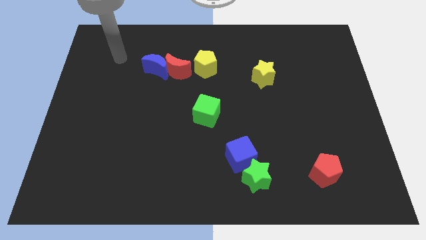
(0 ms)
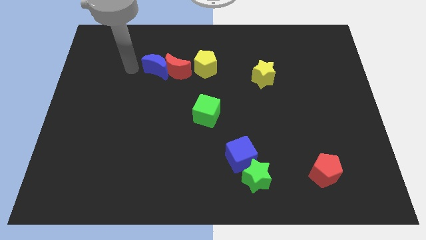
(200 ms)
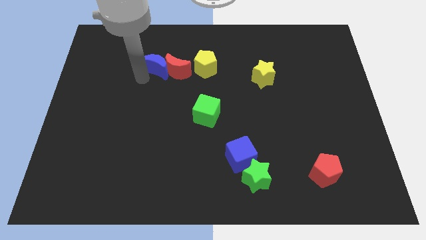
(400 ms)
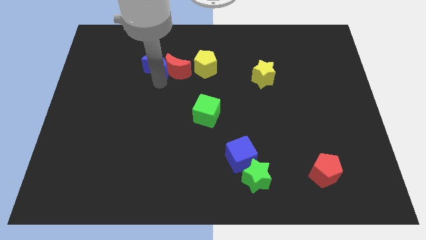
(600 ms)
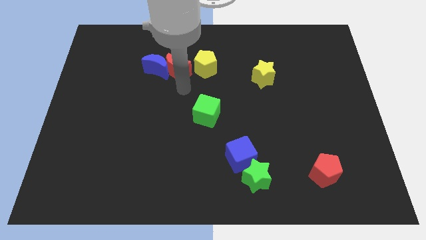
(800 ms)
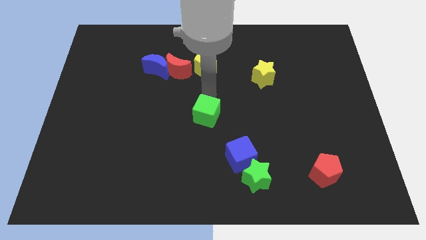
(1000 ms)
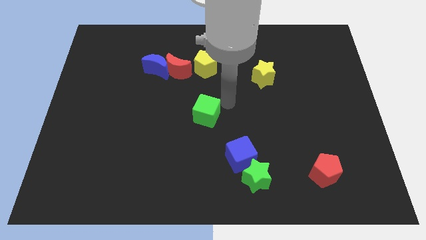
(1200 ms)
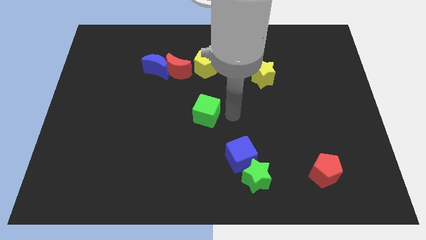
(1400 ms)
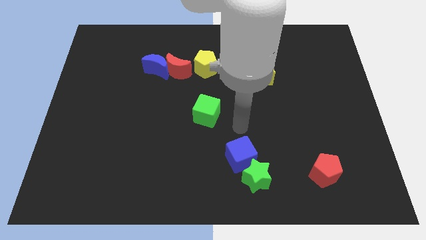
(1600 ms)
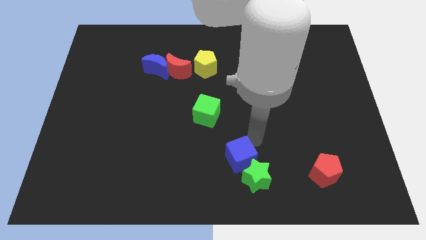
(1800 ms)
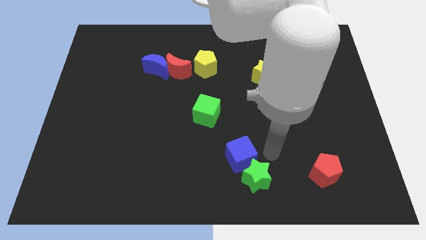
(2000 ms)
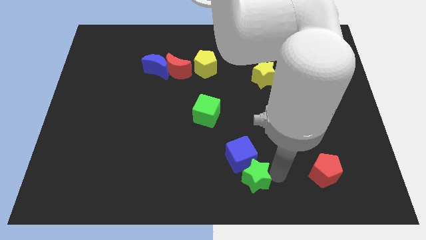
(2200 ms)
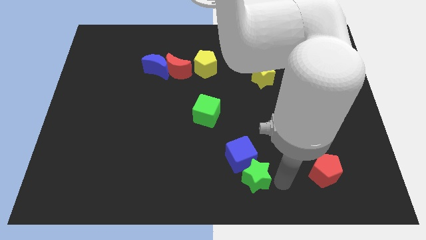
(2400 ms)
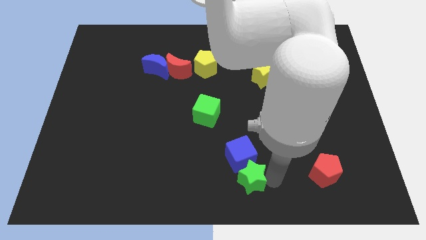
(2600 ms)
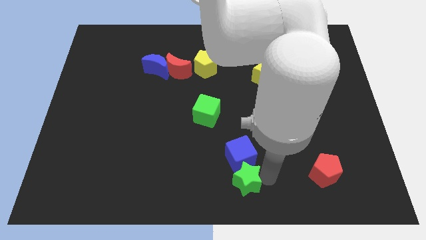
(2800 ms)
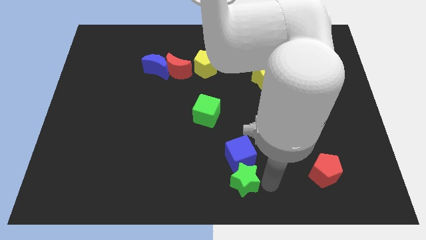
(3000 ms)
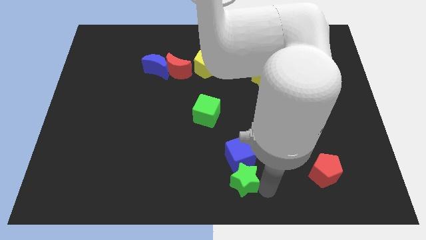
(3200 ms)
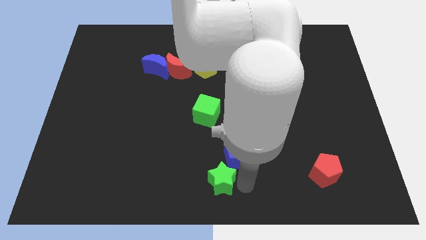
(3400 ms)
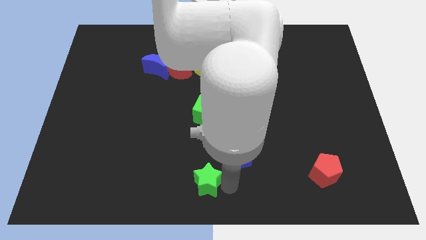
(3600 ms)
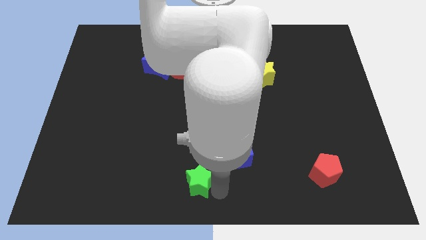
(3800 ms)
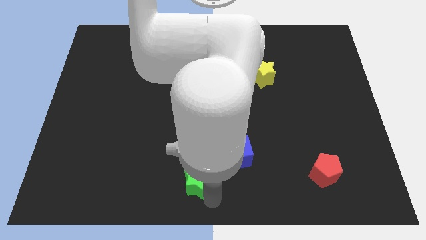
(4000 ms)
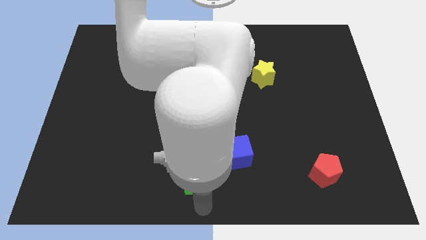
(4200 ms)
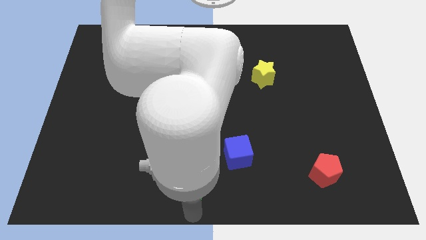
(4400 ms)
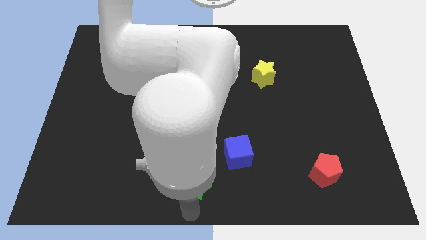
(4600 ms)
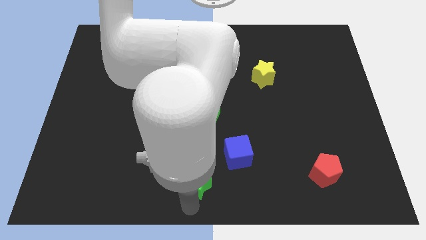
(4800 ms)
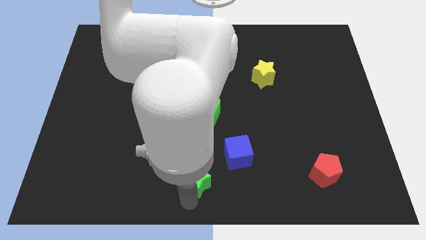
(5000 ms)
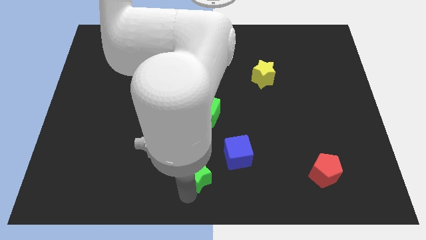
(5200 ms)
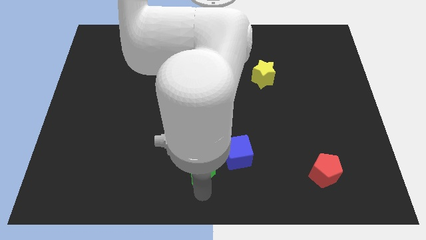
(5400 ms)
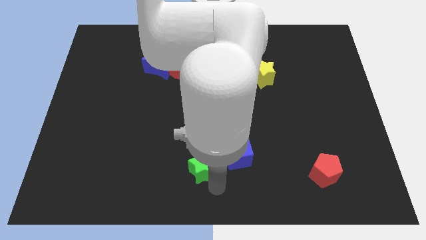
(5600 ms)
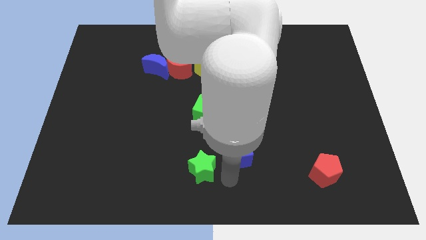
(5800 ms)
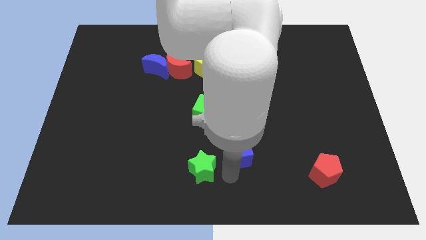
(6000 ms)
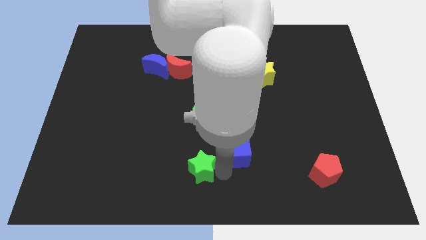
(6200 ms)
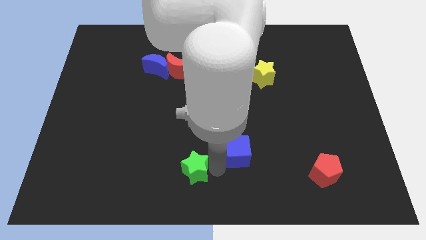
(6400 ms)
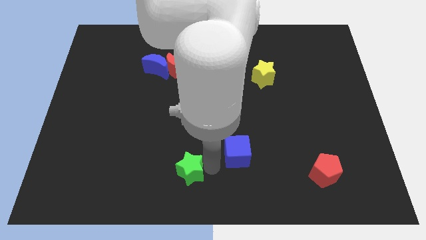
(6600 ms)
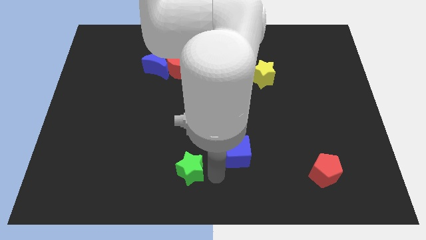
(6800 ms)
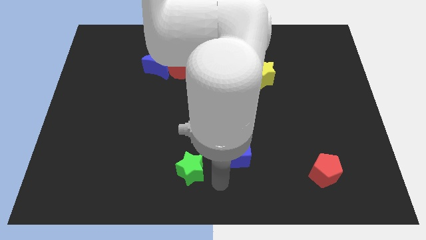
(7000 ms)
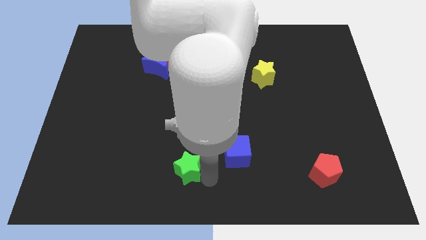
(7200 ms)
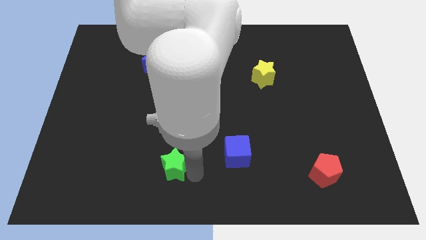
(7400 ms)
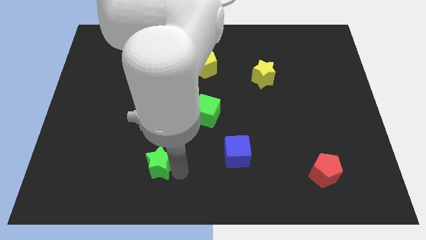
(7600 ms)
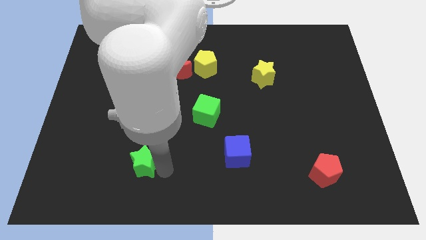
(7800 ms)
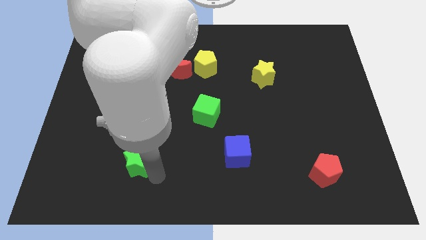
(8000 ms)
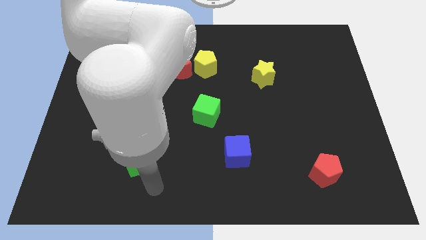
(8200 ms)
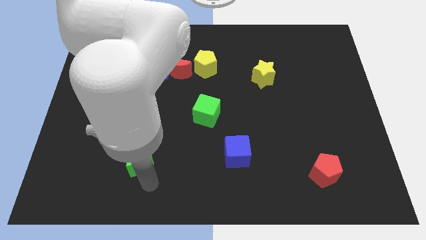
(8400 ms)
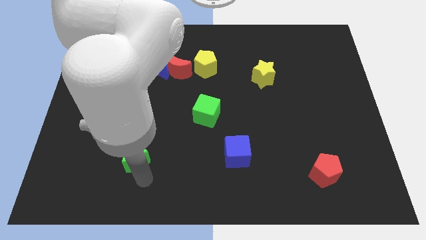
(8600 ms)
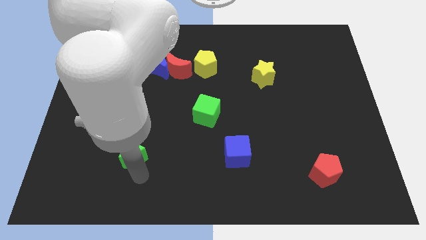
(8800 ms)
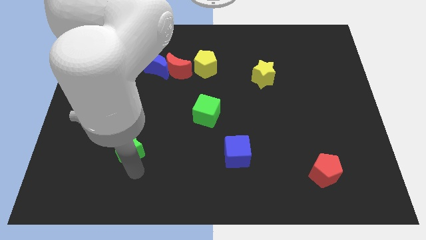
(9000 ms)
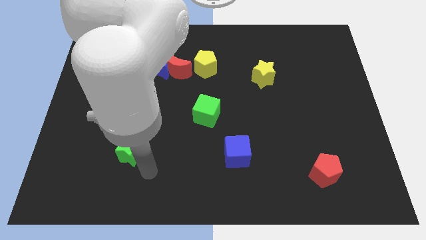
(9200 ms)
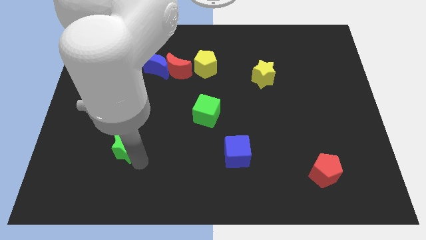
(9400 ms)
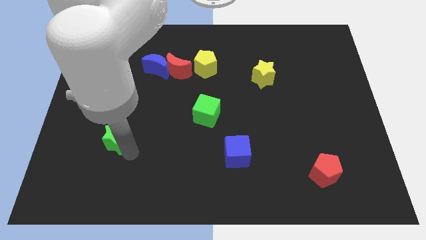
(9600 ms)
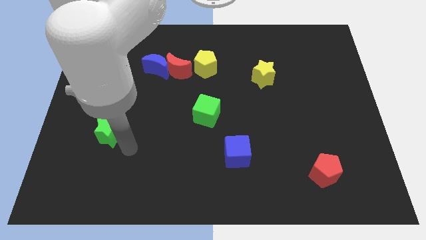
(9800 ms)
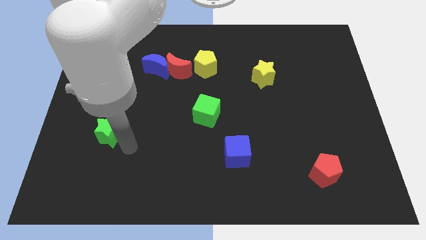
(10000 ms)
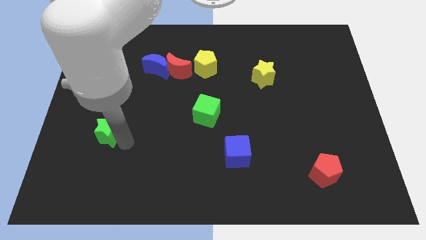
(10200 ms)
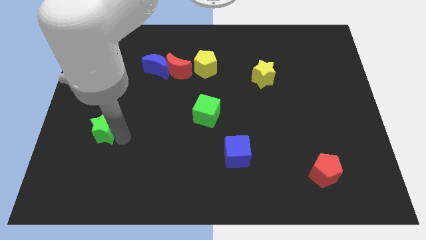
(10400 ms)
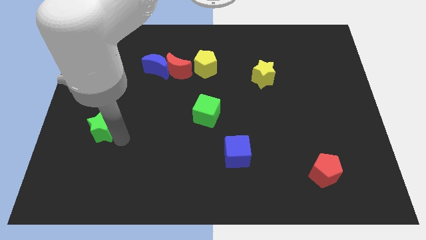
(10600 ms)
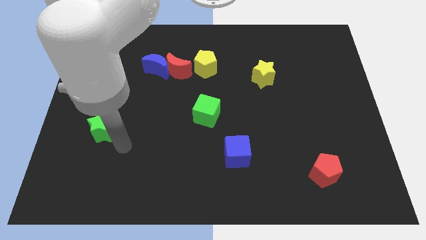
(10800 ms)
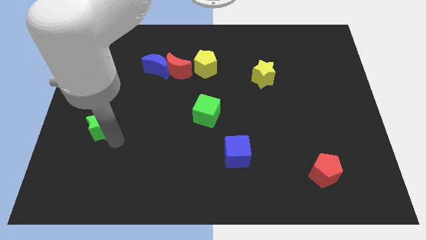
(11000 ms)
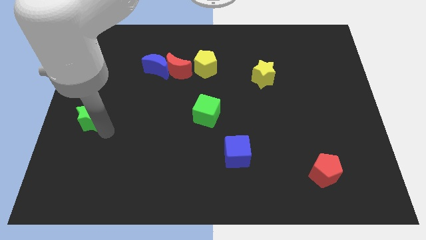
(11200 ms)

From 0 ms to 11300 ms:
move the green star to the left side
